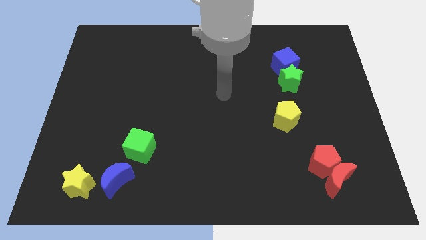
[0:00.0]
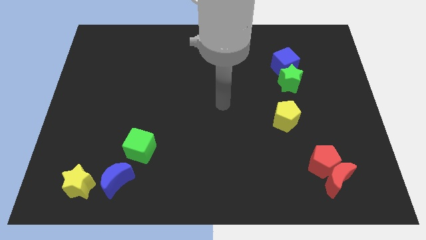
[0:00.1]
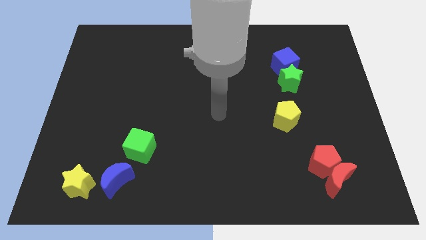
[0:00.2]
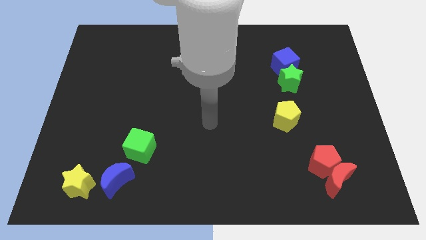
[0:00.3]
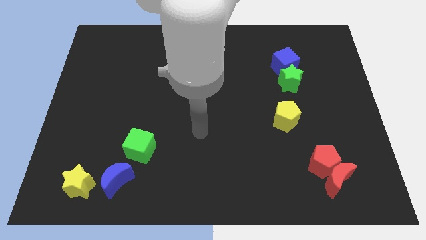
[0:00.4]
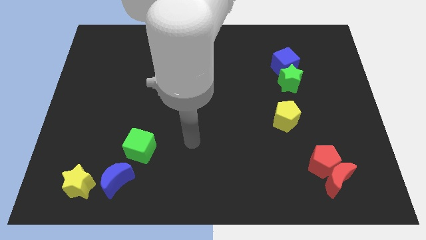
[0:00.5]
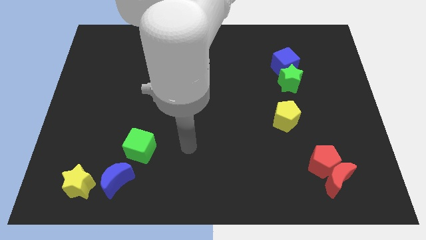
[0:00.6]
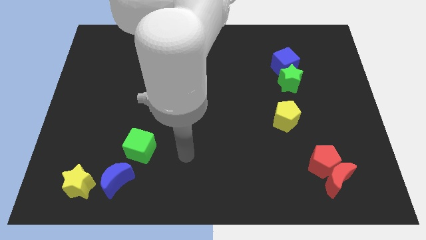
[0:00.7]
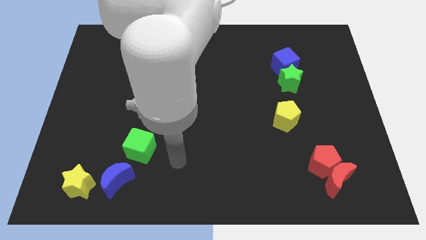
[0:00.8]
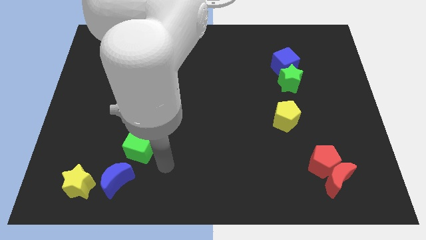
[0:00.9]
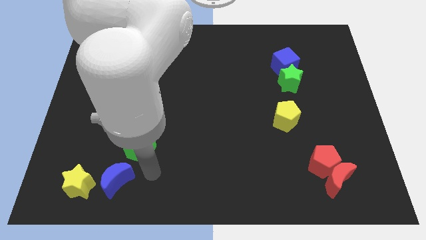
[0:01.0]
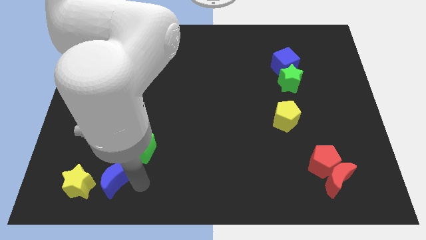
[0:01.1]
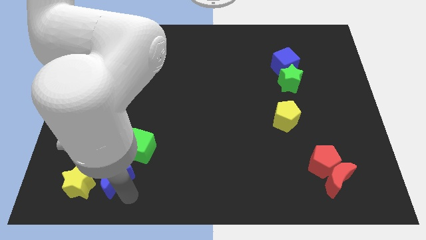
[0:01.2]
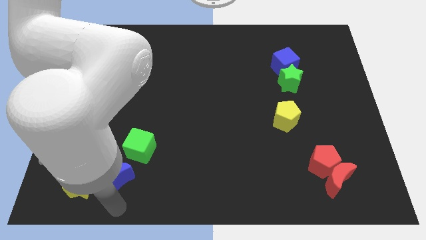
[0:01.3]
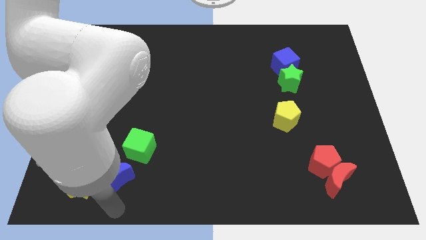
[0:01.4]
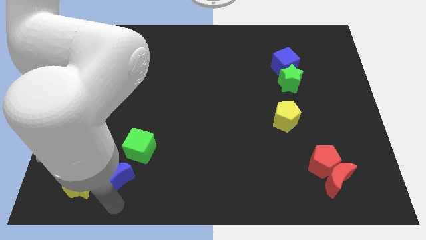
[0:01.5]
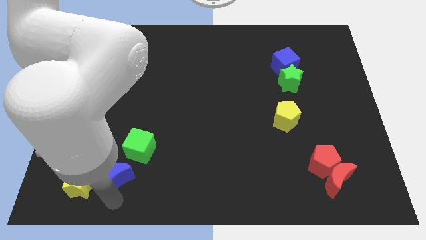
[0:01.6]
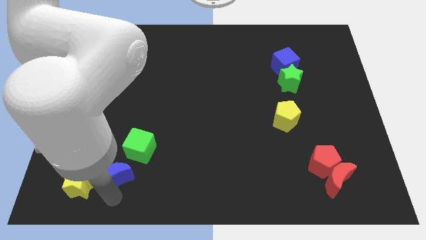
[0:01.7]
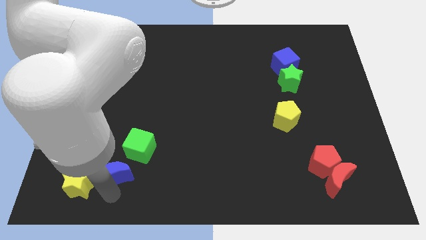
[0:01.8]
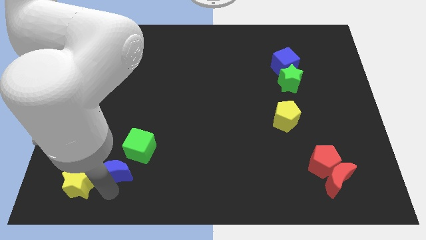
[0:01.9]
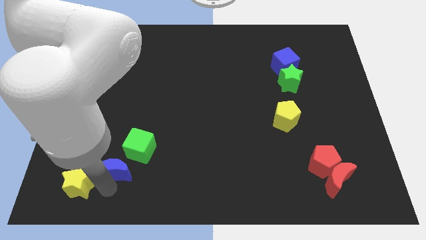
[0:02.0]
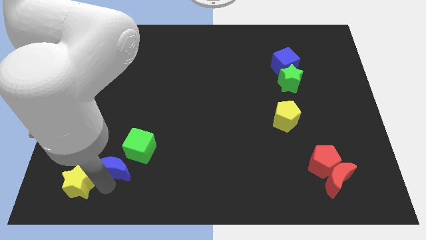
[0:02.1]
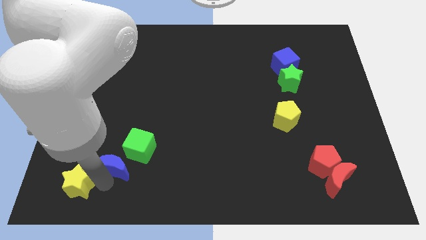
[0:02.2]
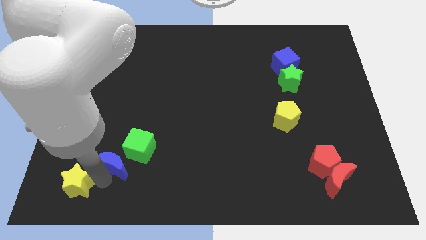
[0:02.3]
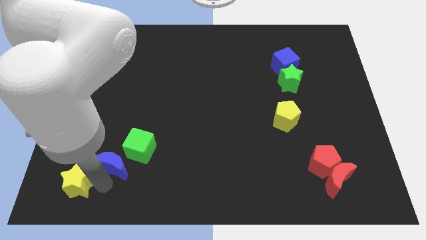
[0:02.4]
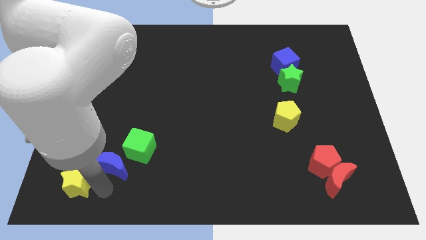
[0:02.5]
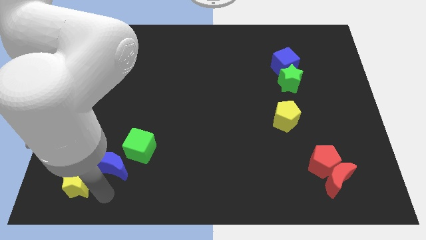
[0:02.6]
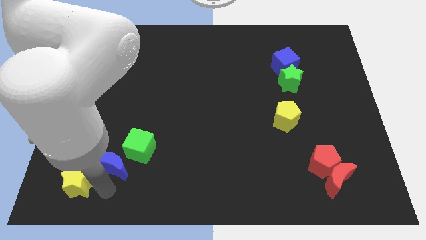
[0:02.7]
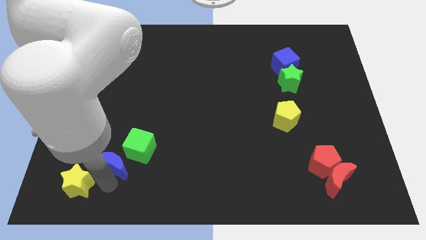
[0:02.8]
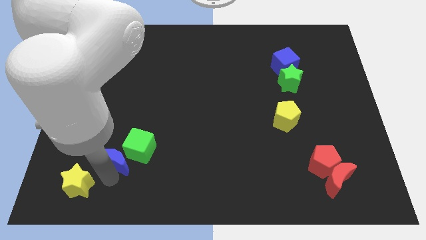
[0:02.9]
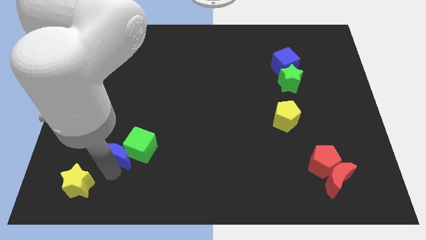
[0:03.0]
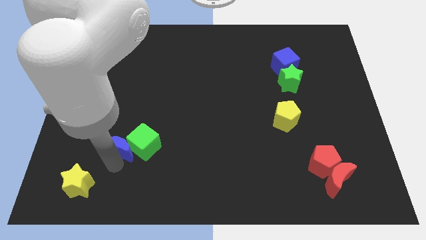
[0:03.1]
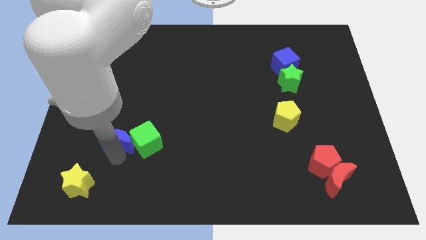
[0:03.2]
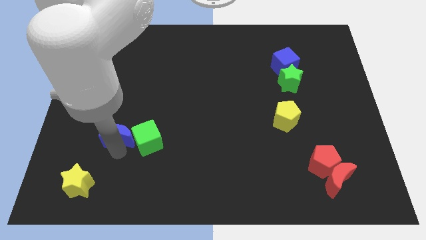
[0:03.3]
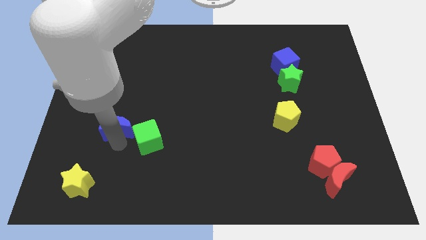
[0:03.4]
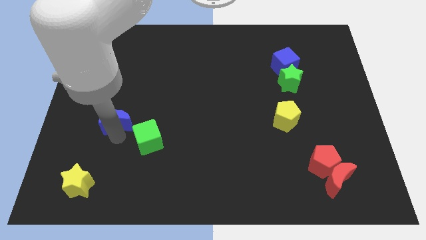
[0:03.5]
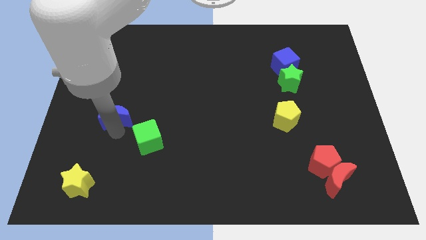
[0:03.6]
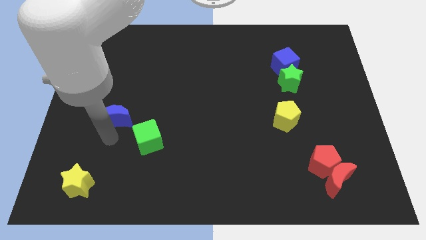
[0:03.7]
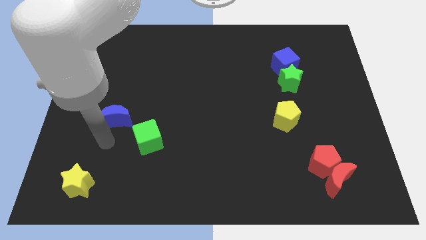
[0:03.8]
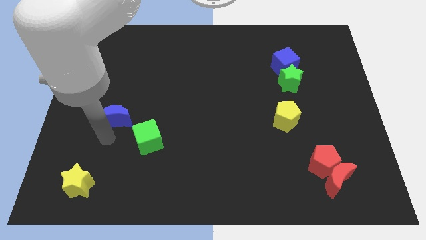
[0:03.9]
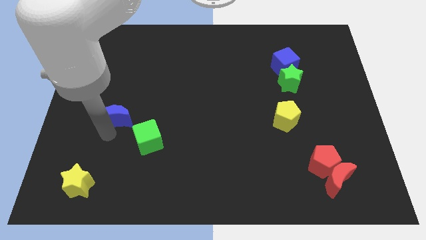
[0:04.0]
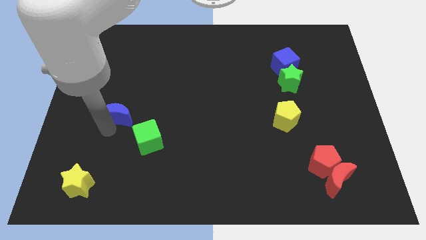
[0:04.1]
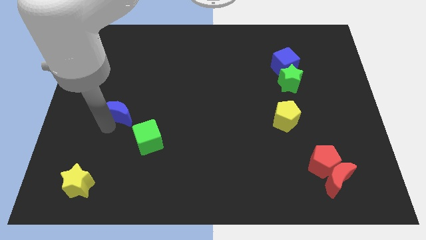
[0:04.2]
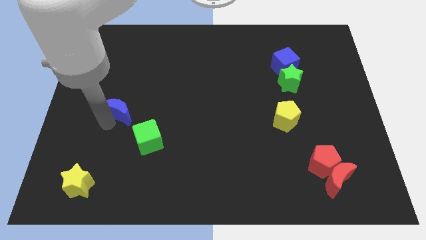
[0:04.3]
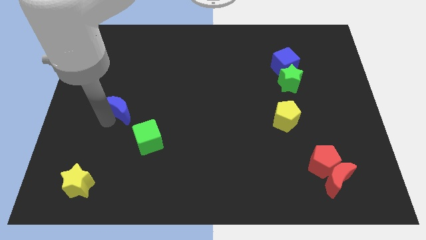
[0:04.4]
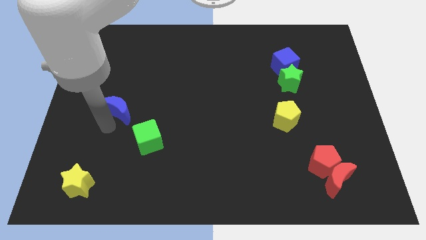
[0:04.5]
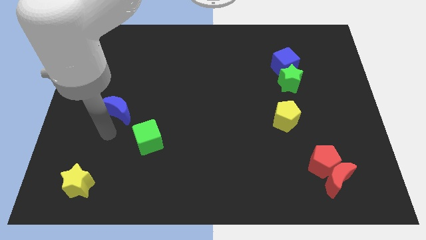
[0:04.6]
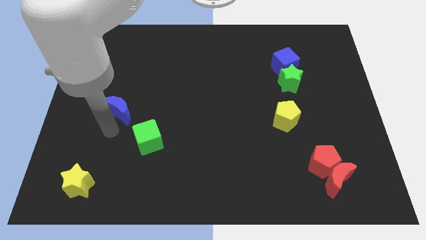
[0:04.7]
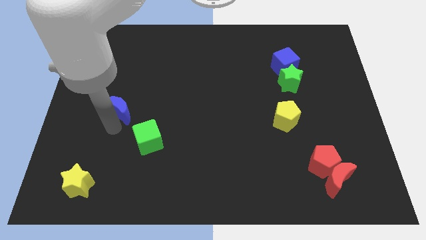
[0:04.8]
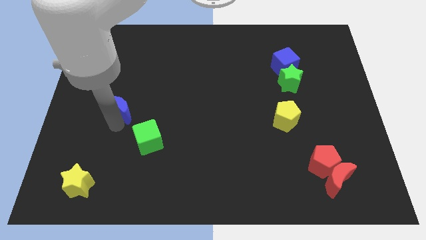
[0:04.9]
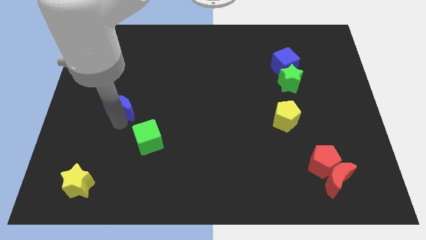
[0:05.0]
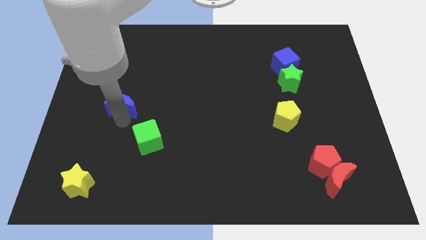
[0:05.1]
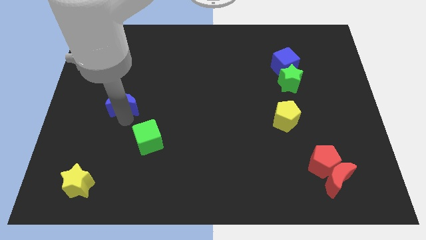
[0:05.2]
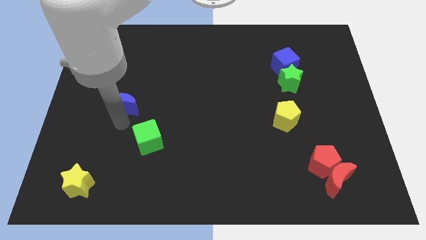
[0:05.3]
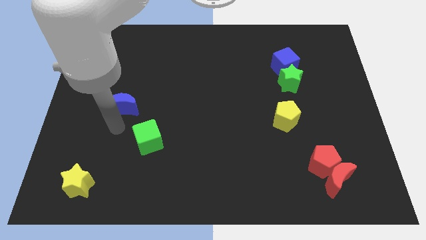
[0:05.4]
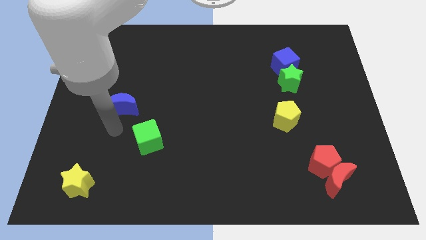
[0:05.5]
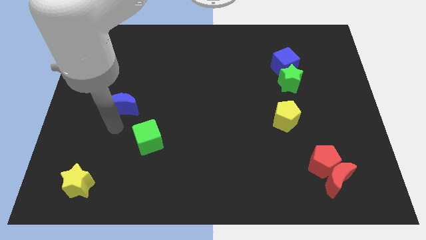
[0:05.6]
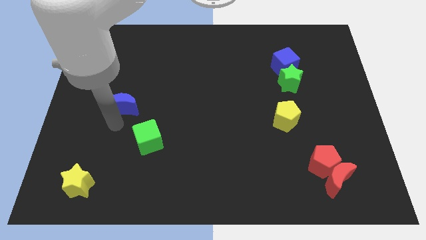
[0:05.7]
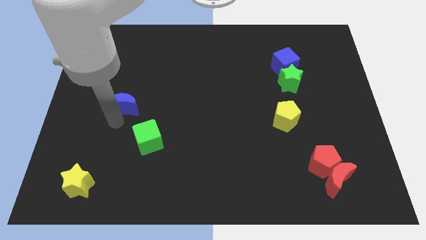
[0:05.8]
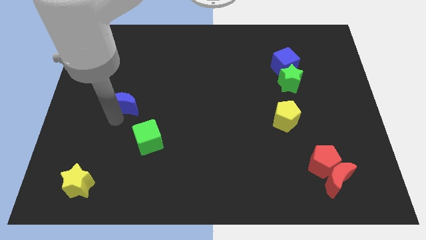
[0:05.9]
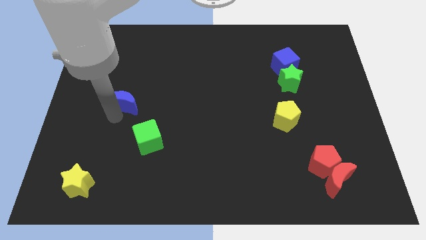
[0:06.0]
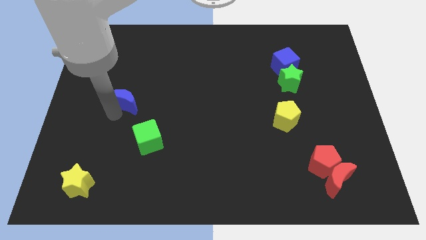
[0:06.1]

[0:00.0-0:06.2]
move the blue moon upwards

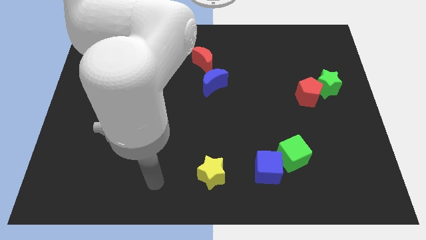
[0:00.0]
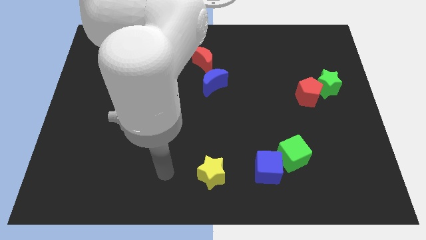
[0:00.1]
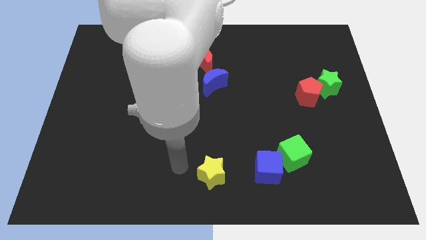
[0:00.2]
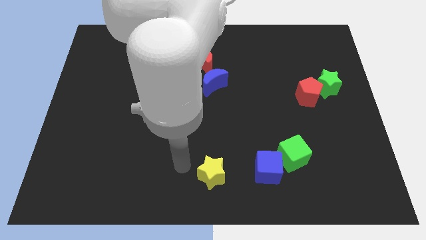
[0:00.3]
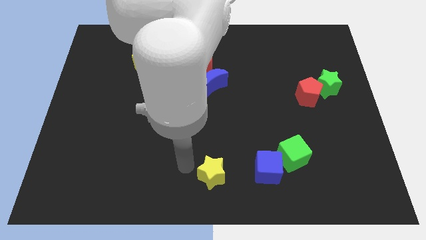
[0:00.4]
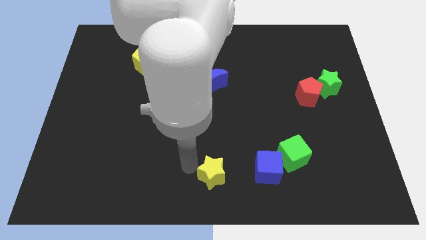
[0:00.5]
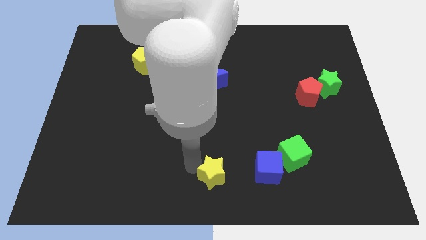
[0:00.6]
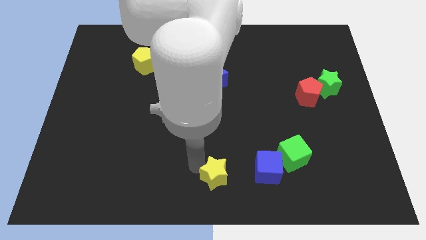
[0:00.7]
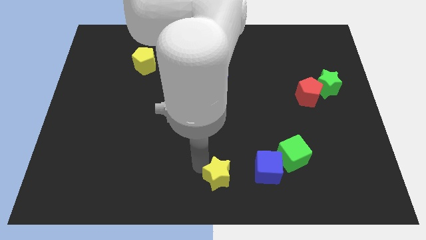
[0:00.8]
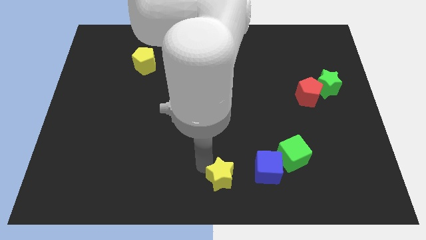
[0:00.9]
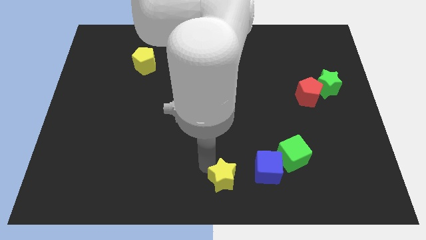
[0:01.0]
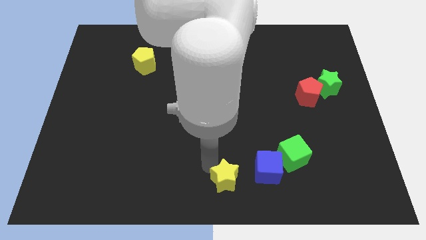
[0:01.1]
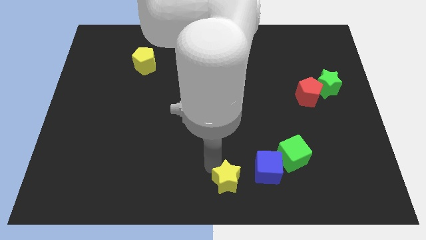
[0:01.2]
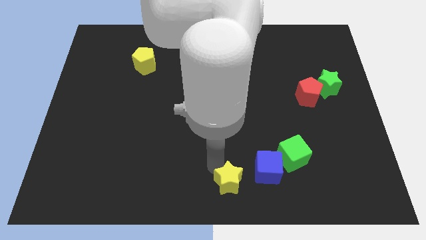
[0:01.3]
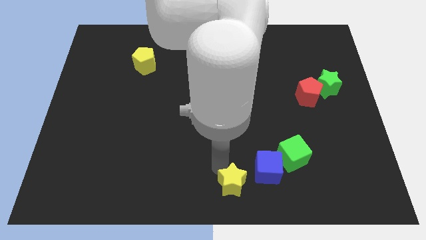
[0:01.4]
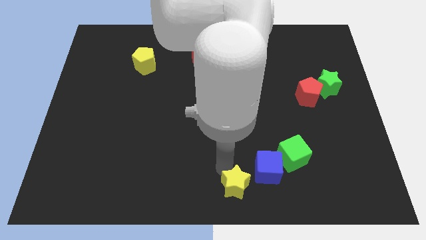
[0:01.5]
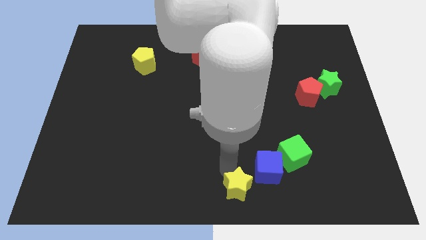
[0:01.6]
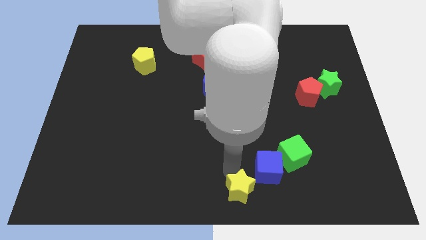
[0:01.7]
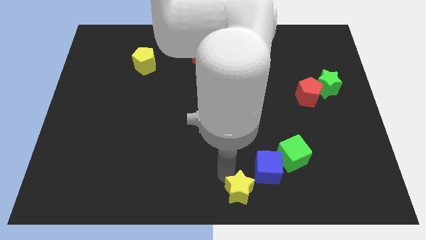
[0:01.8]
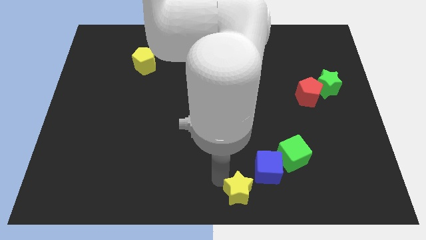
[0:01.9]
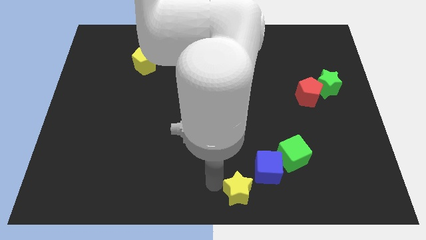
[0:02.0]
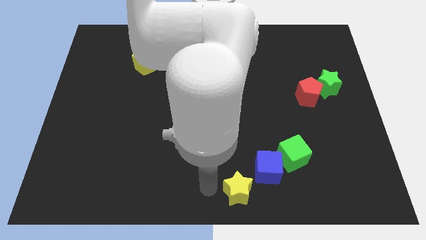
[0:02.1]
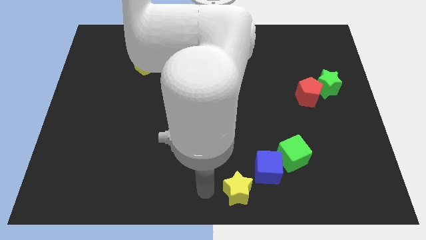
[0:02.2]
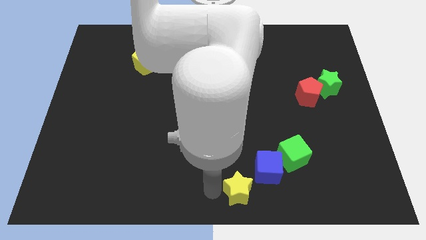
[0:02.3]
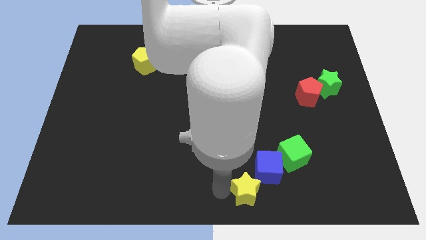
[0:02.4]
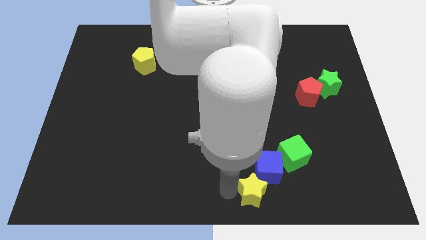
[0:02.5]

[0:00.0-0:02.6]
slide the yellow star somewhat to the right
